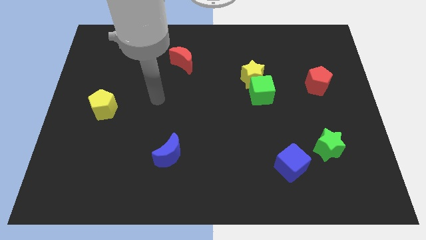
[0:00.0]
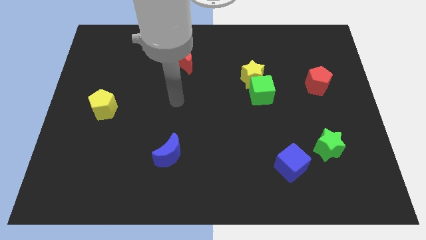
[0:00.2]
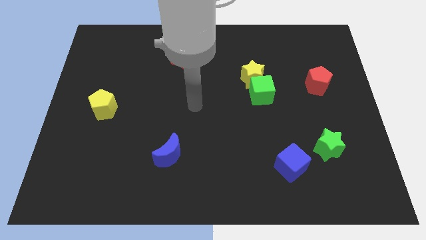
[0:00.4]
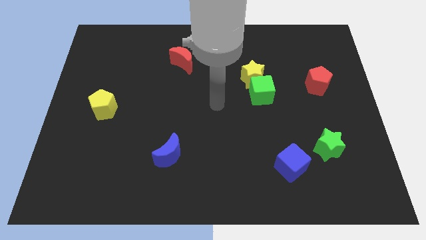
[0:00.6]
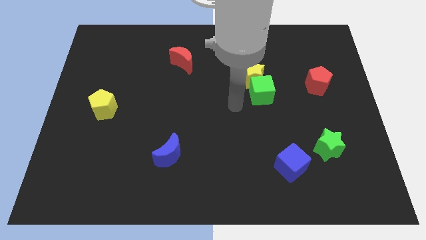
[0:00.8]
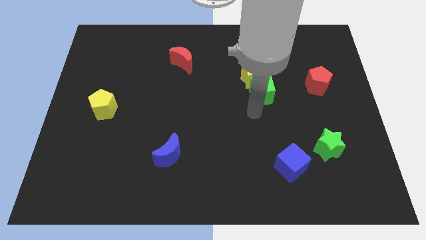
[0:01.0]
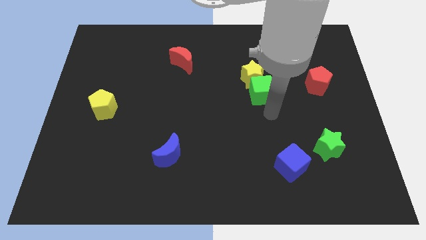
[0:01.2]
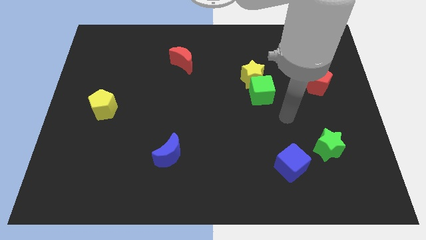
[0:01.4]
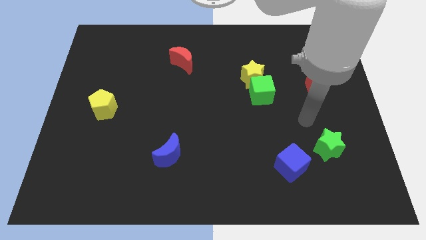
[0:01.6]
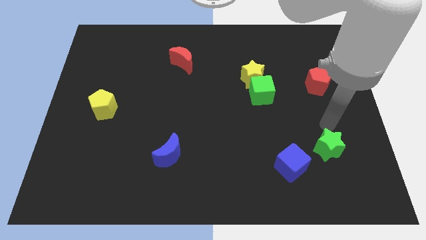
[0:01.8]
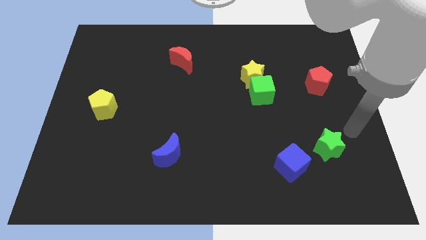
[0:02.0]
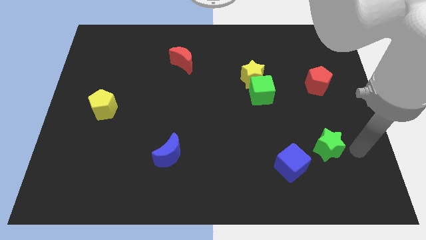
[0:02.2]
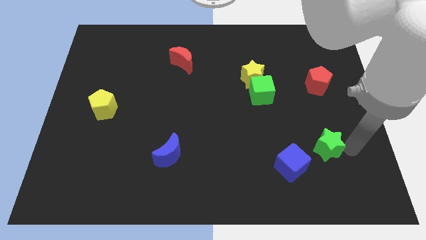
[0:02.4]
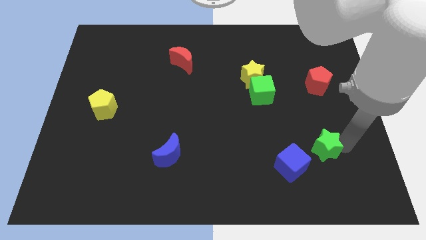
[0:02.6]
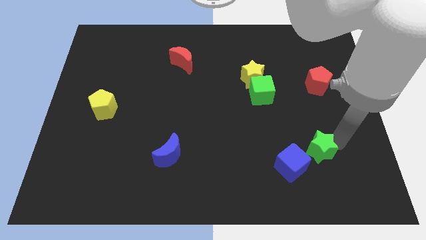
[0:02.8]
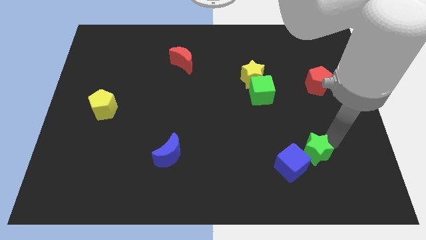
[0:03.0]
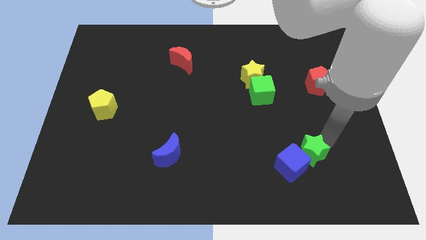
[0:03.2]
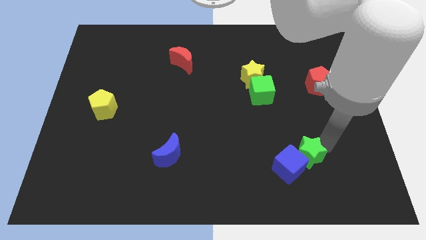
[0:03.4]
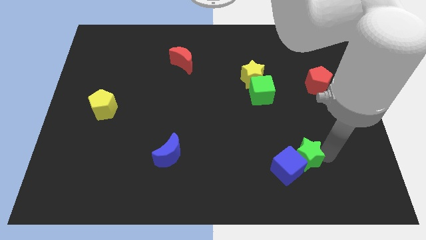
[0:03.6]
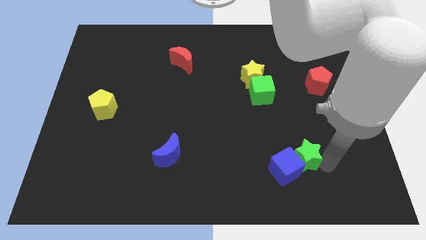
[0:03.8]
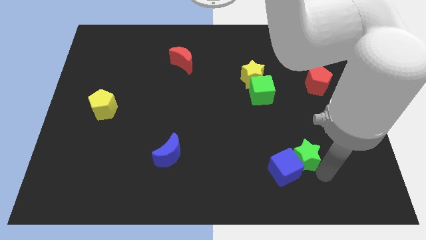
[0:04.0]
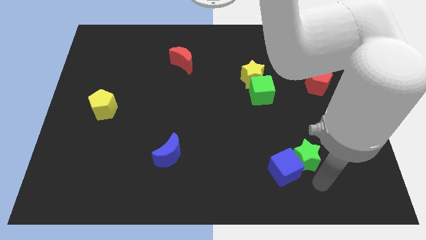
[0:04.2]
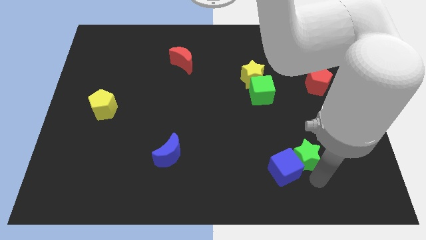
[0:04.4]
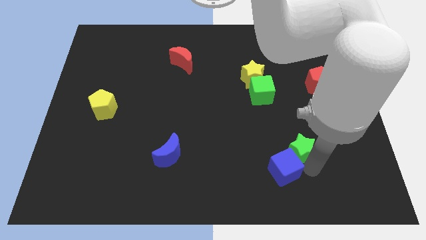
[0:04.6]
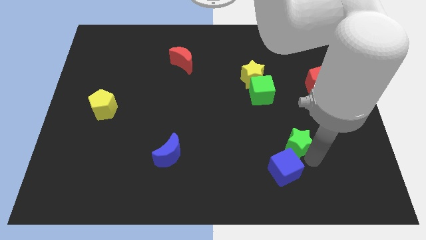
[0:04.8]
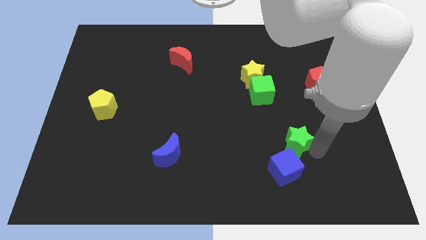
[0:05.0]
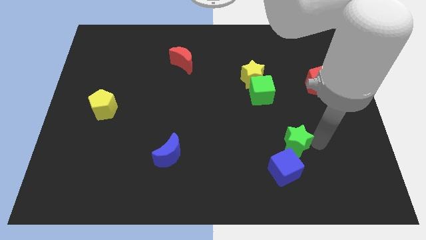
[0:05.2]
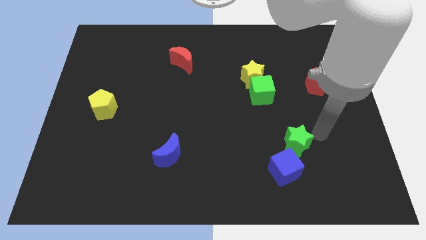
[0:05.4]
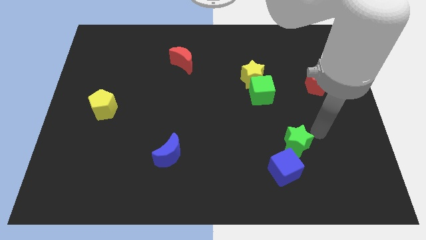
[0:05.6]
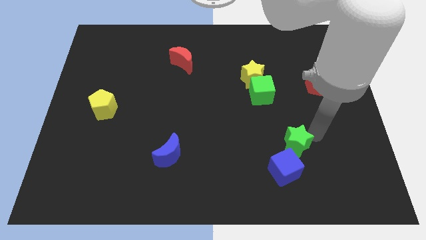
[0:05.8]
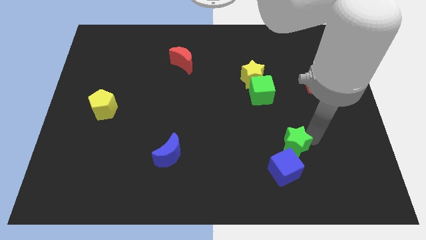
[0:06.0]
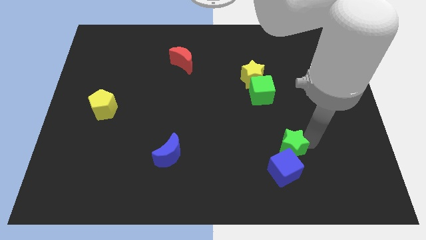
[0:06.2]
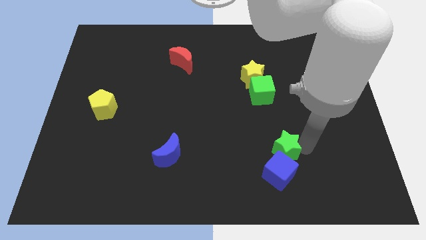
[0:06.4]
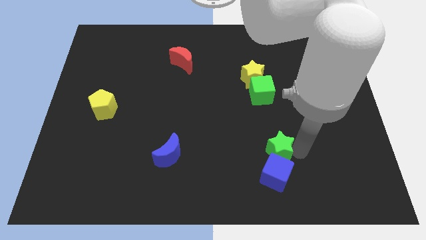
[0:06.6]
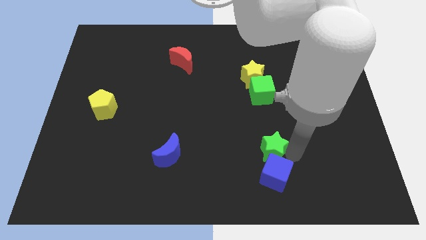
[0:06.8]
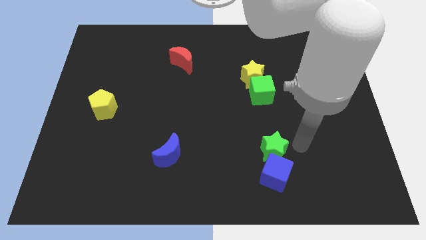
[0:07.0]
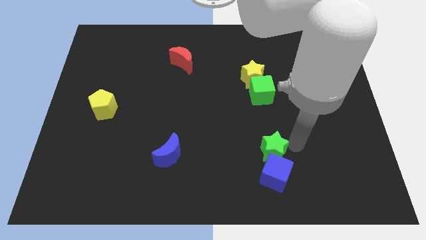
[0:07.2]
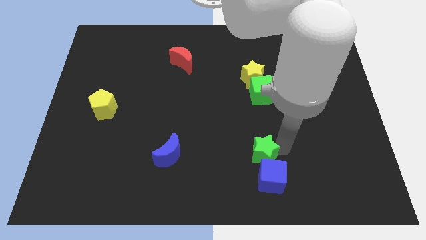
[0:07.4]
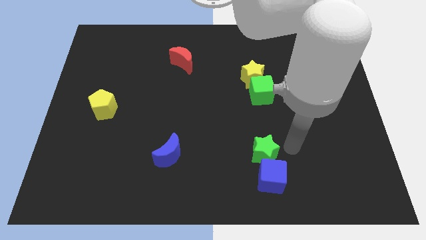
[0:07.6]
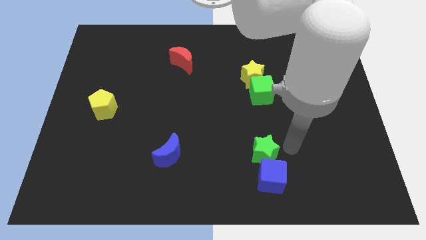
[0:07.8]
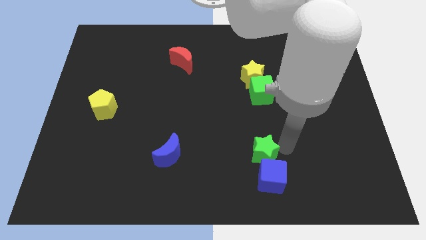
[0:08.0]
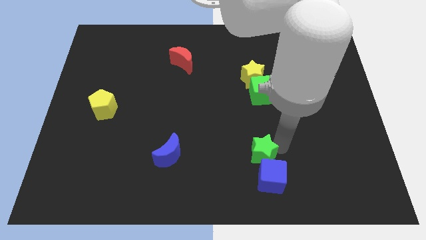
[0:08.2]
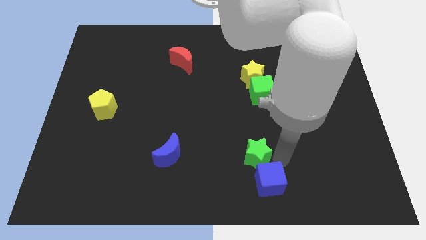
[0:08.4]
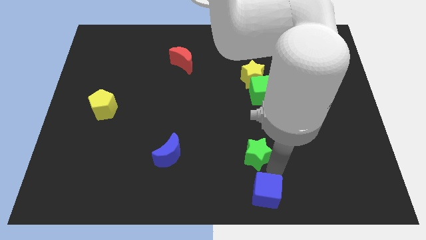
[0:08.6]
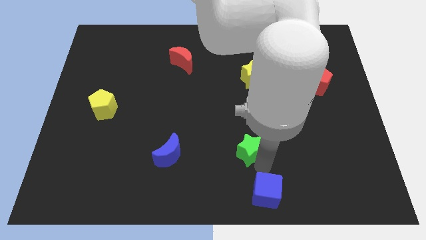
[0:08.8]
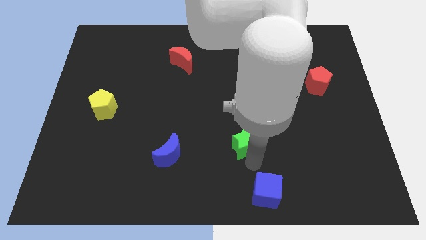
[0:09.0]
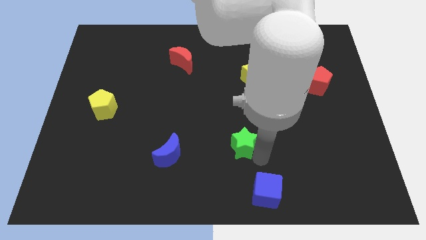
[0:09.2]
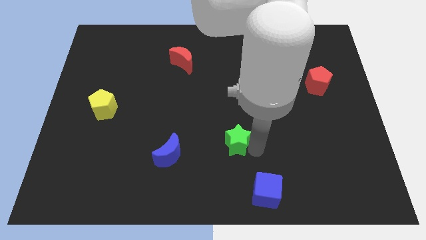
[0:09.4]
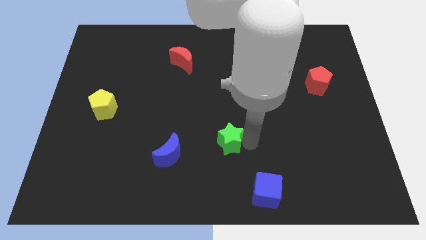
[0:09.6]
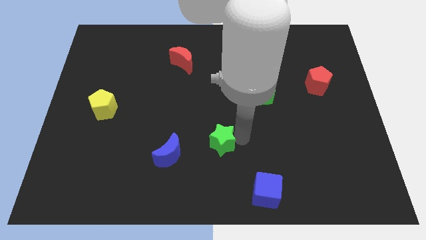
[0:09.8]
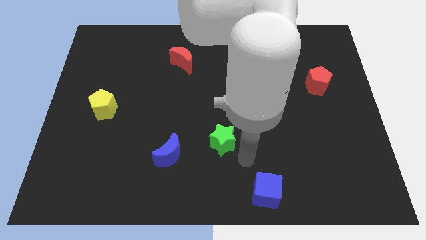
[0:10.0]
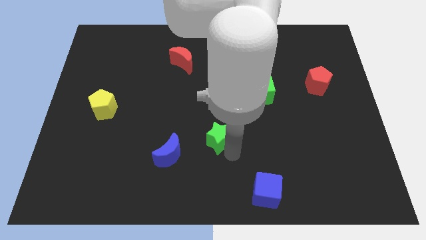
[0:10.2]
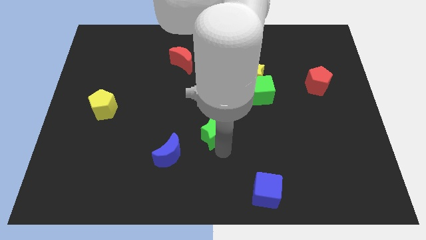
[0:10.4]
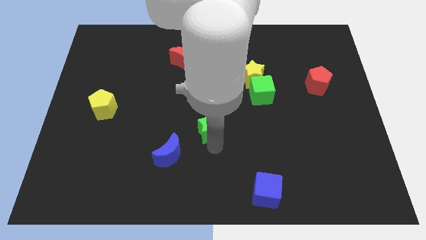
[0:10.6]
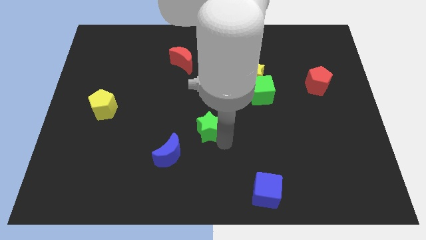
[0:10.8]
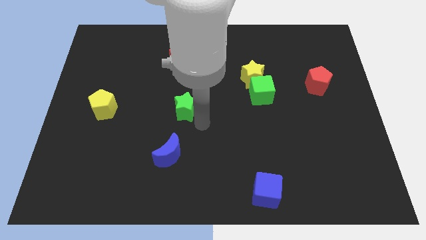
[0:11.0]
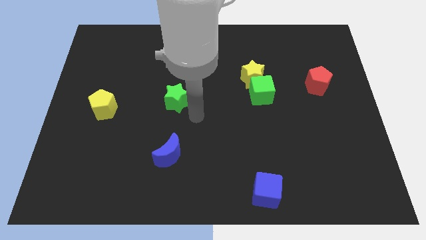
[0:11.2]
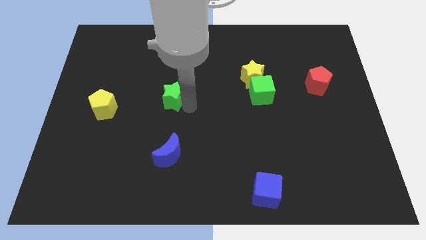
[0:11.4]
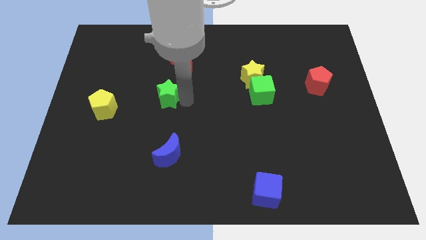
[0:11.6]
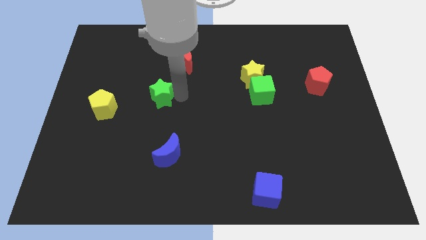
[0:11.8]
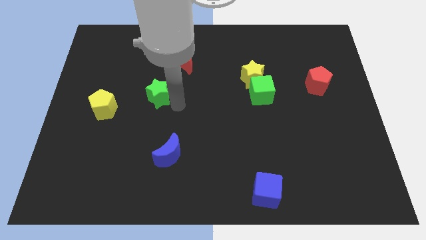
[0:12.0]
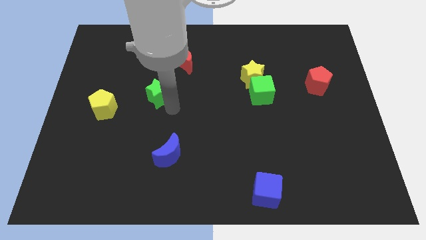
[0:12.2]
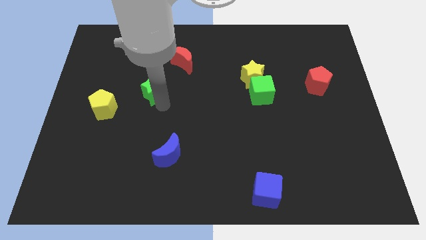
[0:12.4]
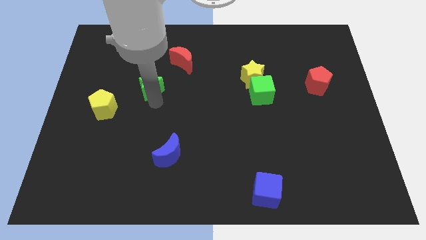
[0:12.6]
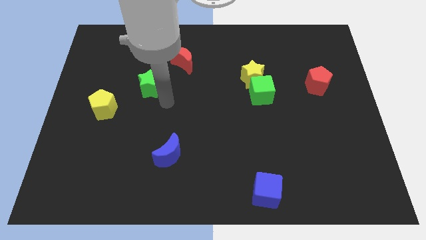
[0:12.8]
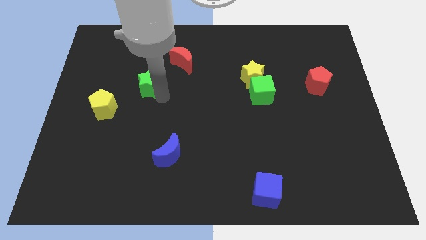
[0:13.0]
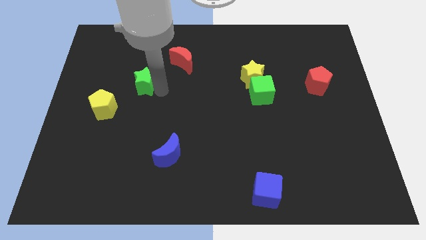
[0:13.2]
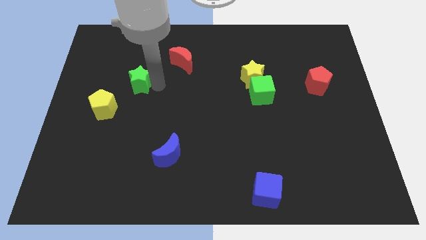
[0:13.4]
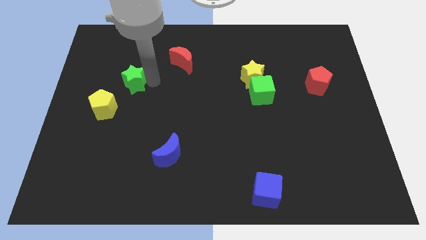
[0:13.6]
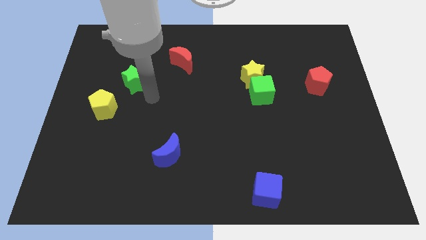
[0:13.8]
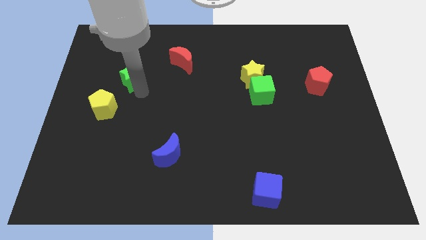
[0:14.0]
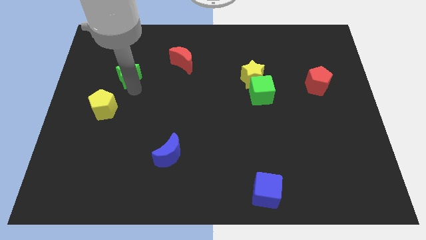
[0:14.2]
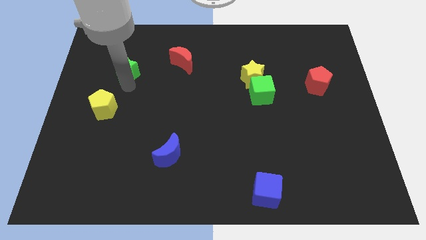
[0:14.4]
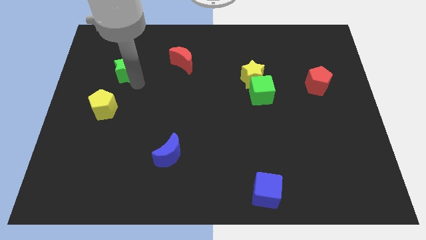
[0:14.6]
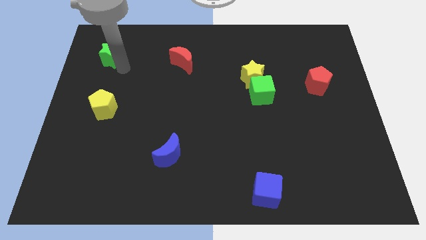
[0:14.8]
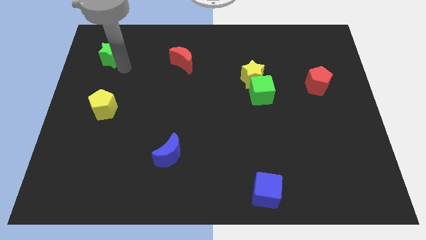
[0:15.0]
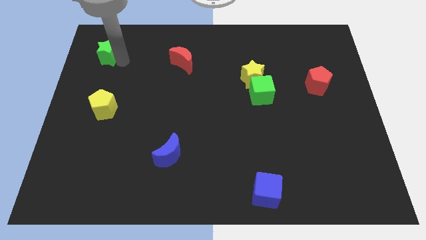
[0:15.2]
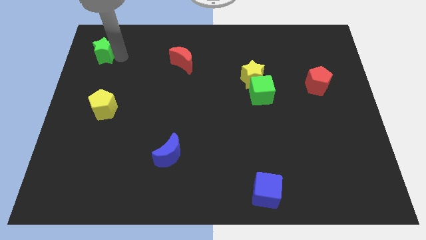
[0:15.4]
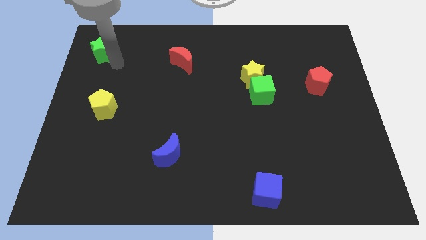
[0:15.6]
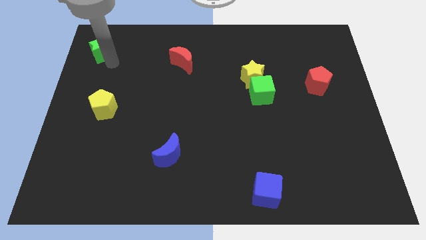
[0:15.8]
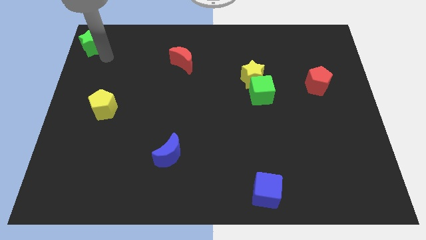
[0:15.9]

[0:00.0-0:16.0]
move the green star to the top left of the board
